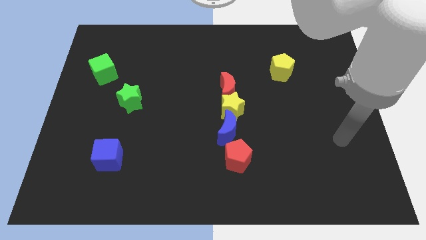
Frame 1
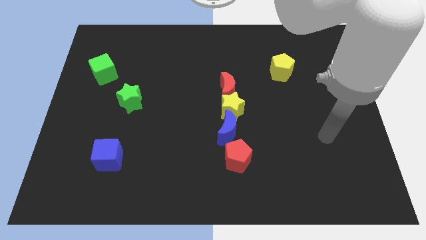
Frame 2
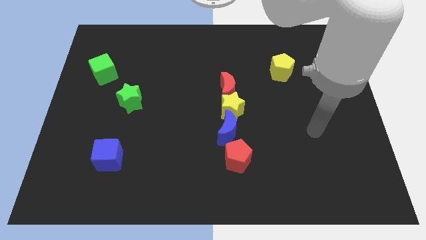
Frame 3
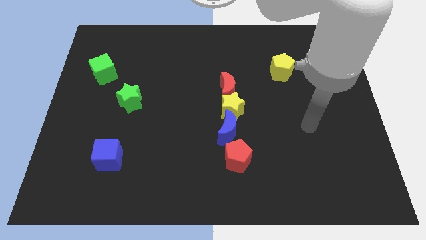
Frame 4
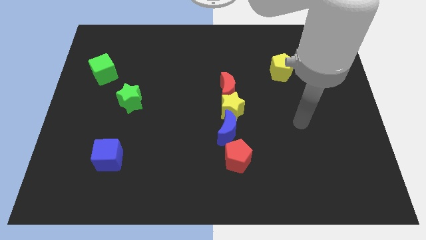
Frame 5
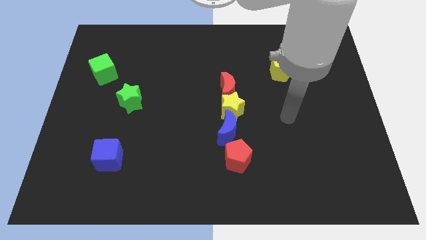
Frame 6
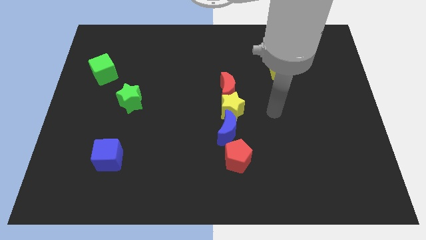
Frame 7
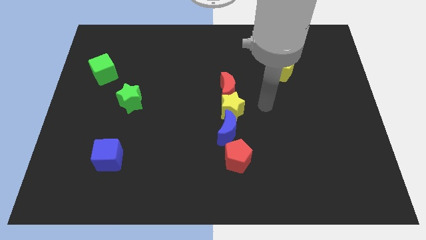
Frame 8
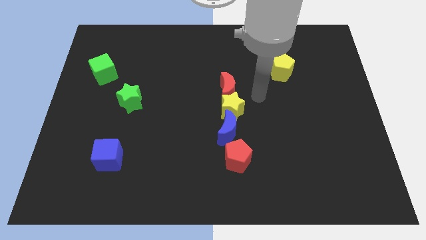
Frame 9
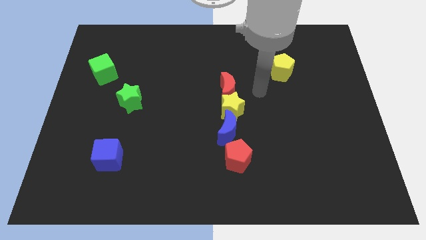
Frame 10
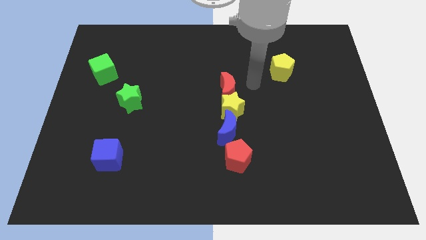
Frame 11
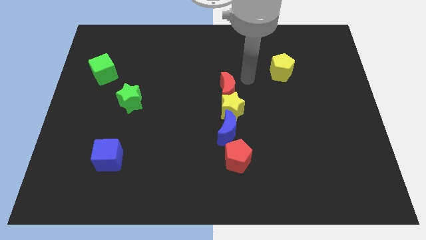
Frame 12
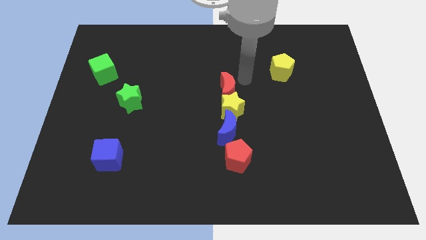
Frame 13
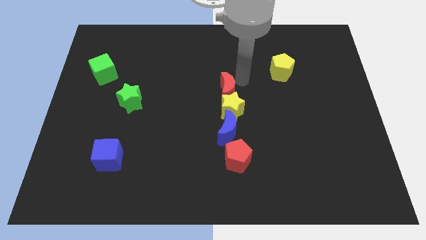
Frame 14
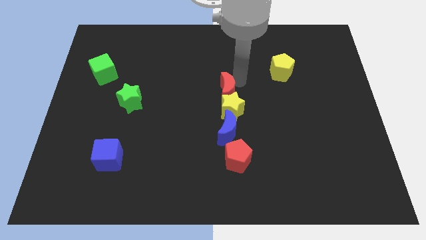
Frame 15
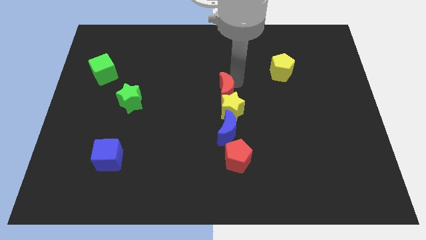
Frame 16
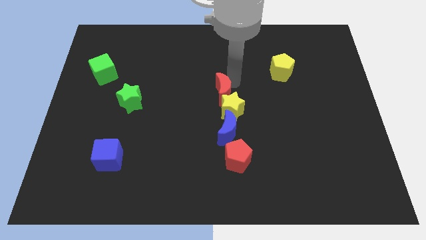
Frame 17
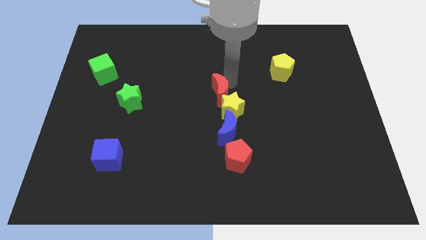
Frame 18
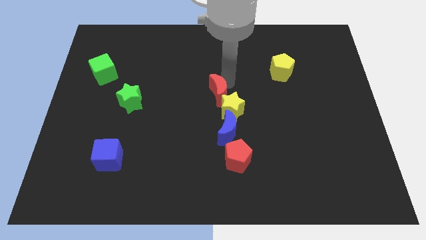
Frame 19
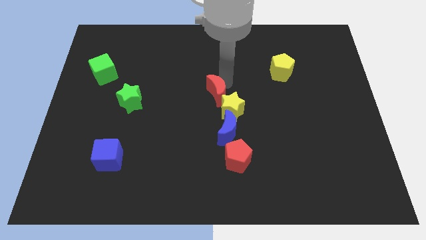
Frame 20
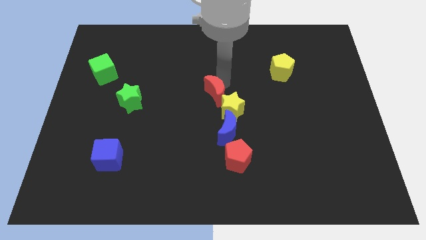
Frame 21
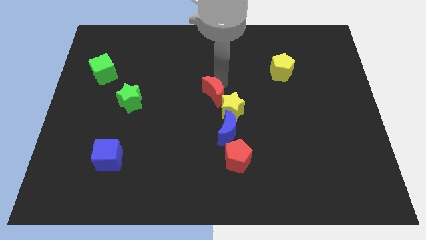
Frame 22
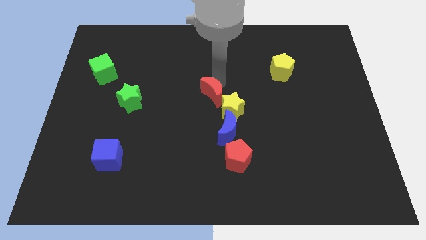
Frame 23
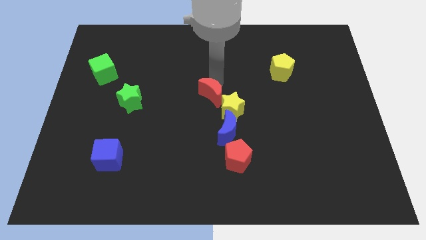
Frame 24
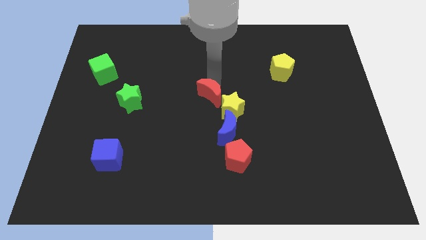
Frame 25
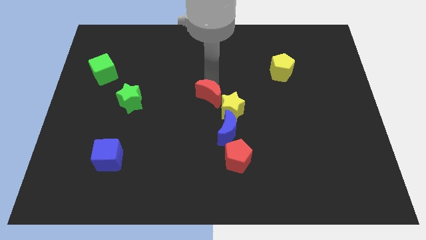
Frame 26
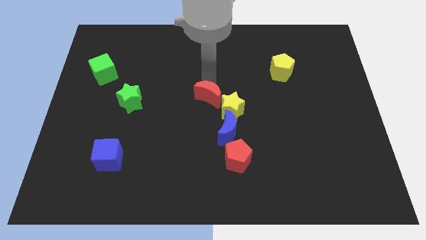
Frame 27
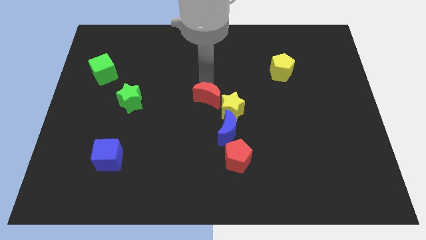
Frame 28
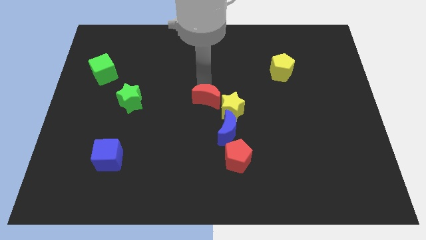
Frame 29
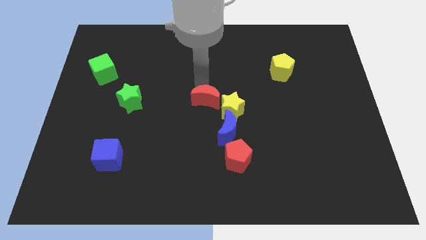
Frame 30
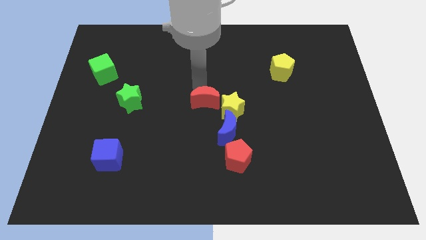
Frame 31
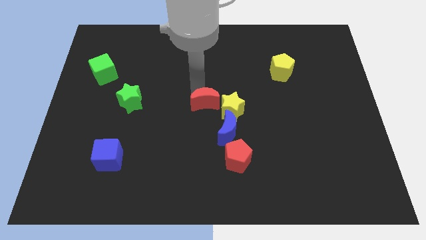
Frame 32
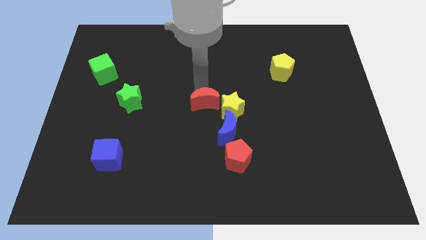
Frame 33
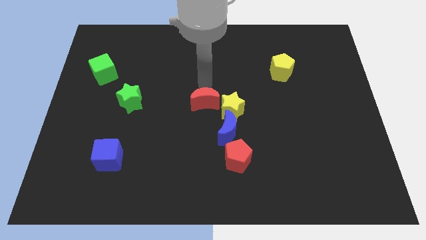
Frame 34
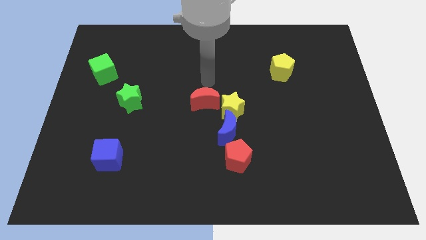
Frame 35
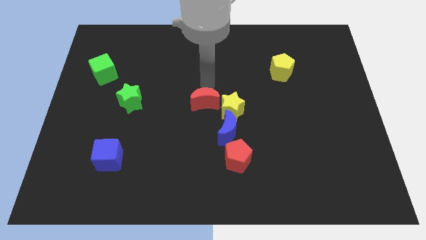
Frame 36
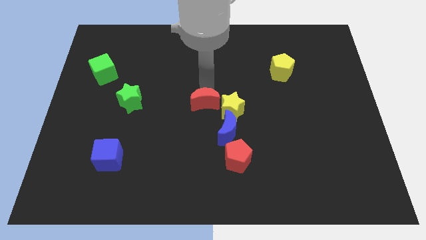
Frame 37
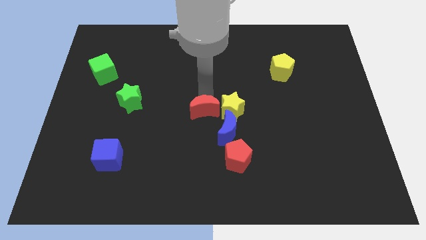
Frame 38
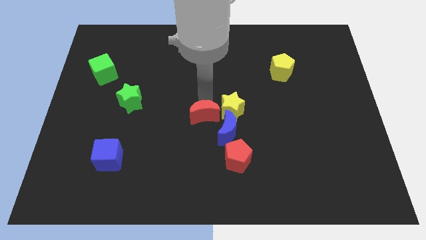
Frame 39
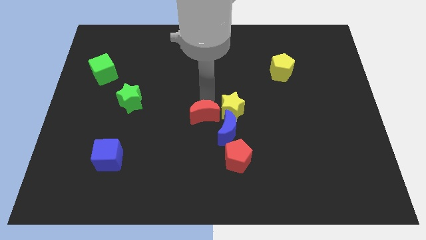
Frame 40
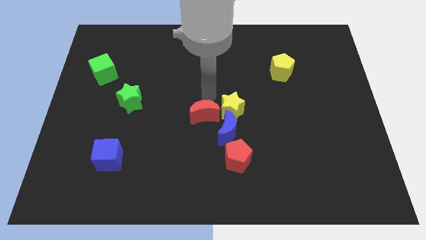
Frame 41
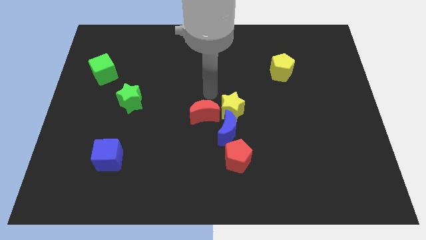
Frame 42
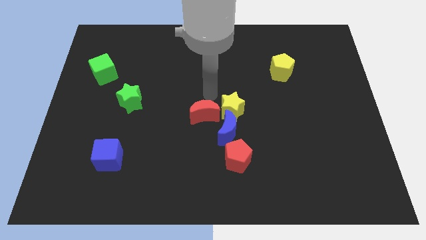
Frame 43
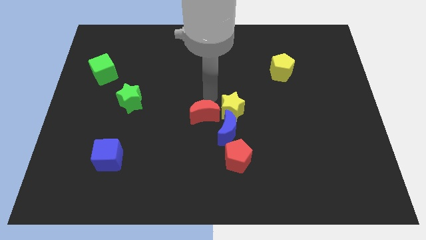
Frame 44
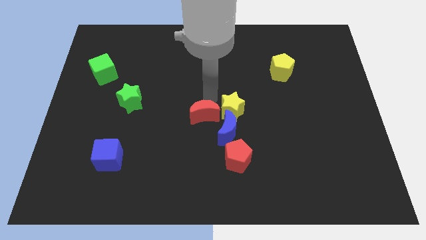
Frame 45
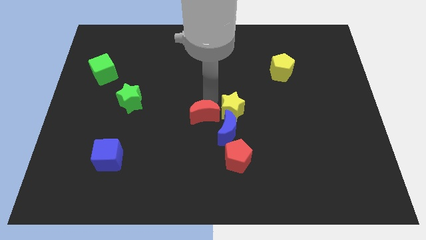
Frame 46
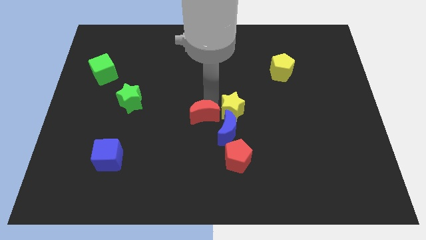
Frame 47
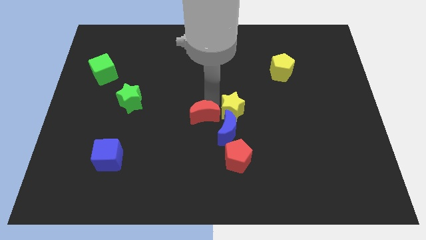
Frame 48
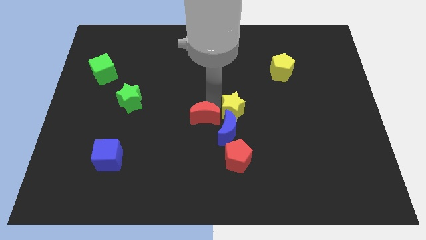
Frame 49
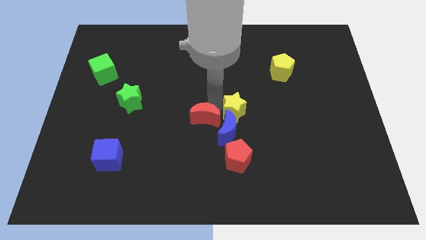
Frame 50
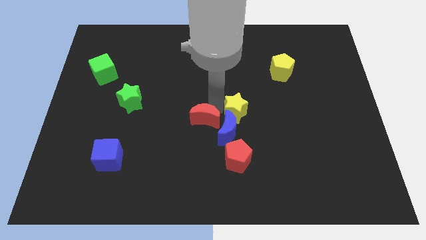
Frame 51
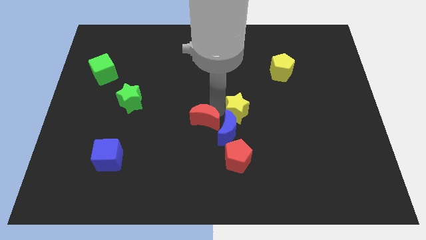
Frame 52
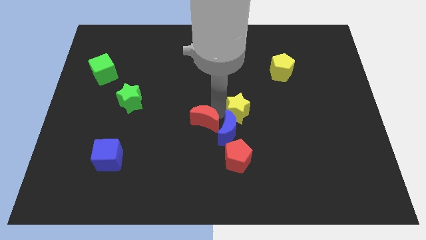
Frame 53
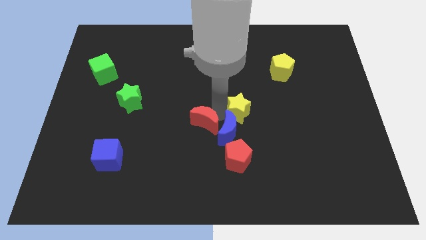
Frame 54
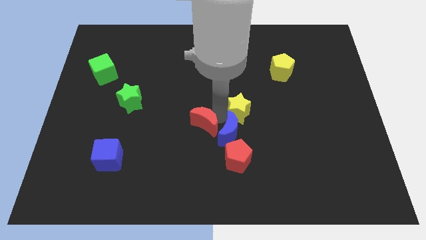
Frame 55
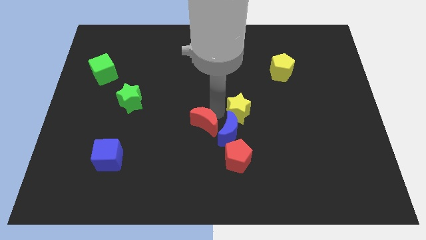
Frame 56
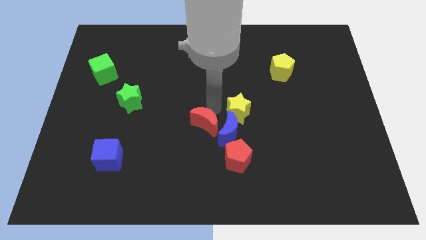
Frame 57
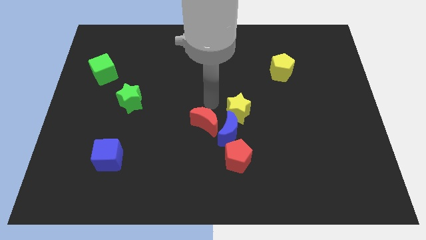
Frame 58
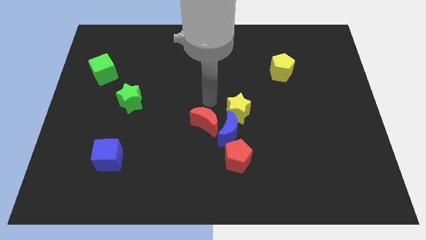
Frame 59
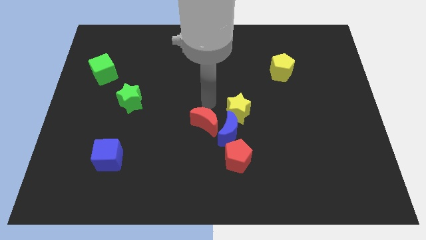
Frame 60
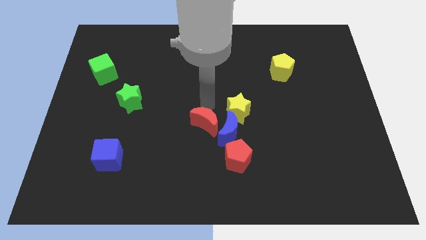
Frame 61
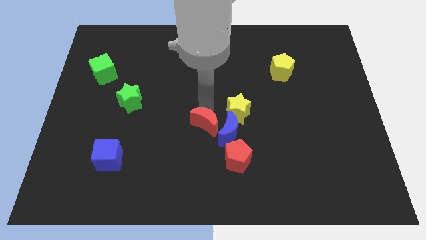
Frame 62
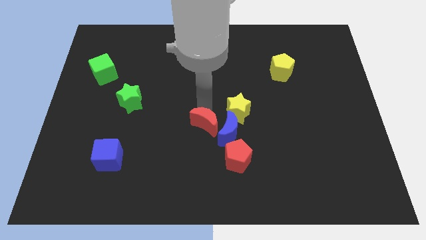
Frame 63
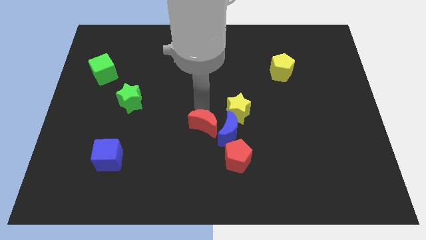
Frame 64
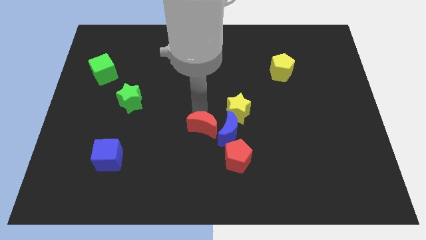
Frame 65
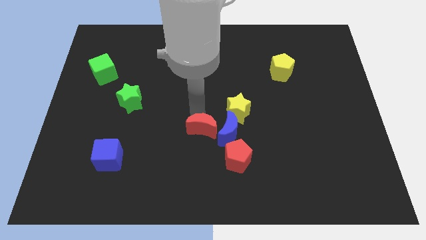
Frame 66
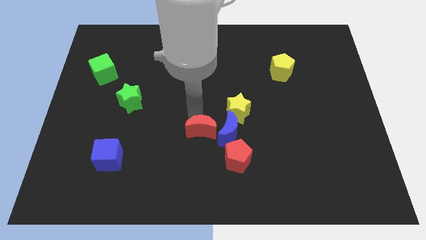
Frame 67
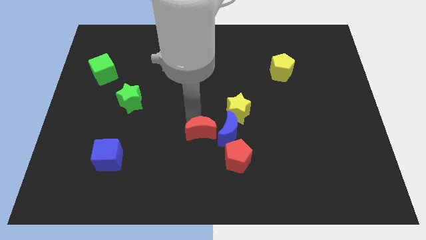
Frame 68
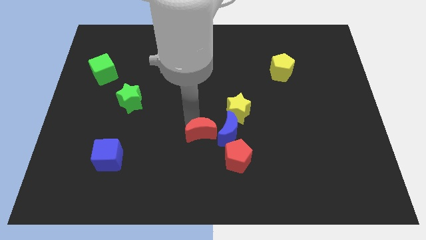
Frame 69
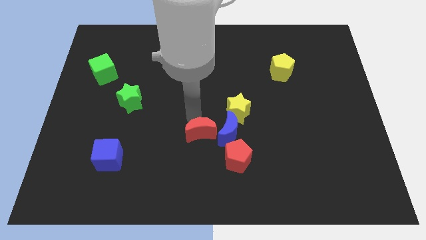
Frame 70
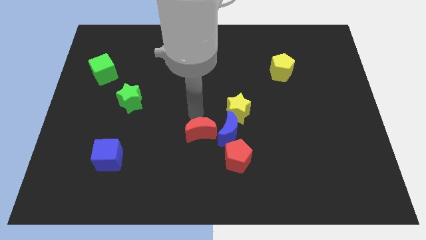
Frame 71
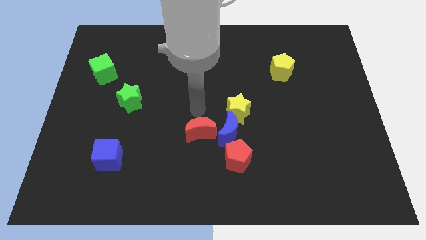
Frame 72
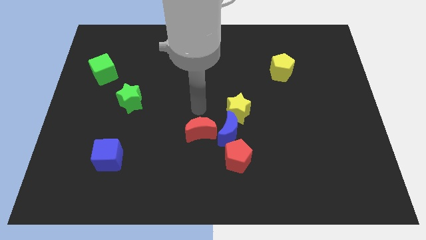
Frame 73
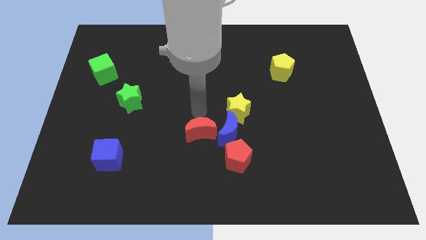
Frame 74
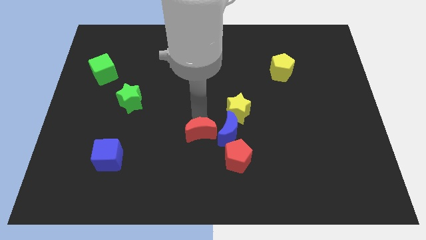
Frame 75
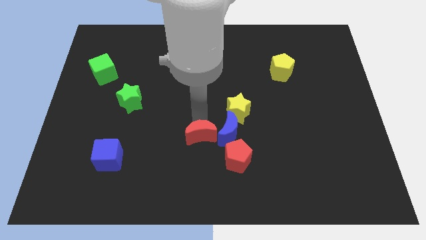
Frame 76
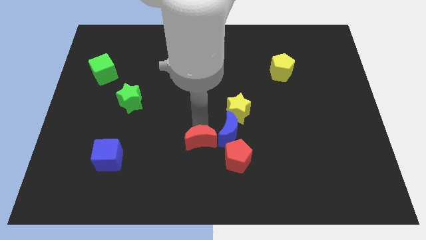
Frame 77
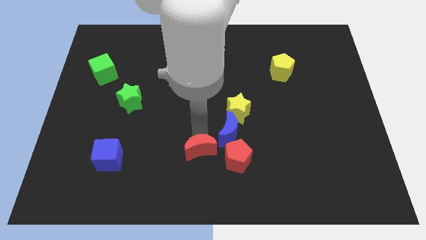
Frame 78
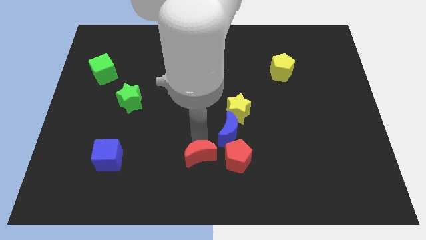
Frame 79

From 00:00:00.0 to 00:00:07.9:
move the red moon to the bottom side
